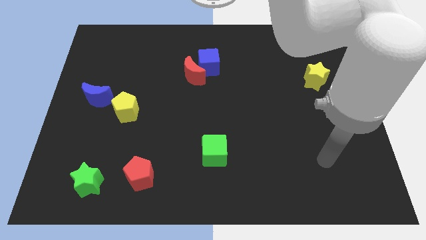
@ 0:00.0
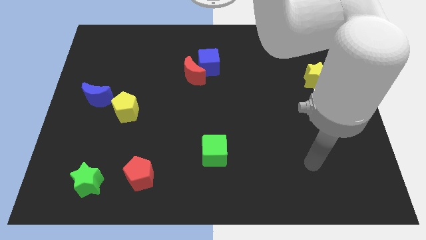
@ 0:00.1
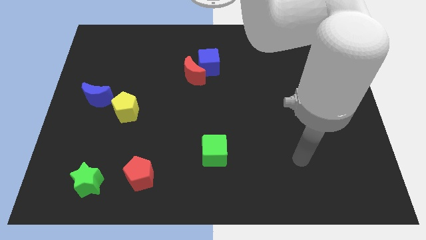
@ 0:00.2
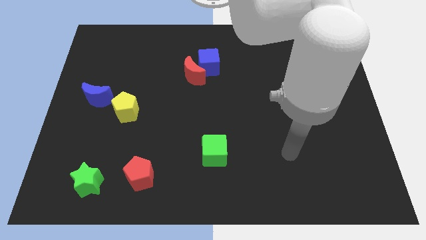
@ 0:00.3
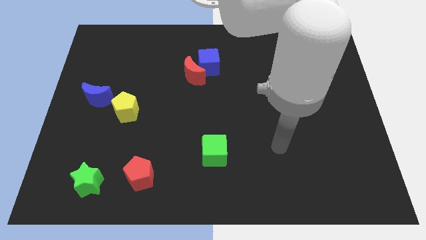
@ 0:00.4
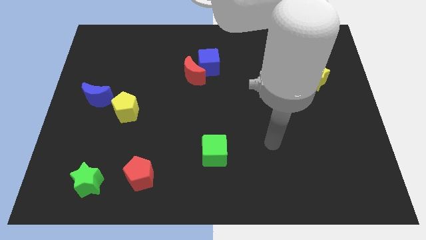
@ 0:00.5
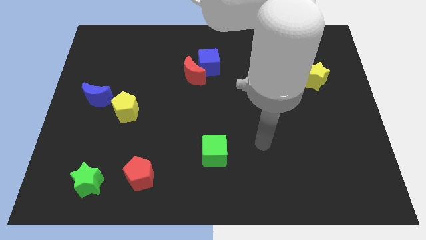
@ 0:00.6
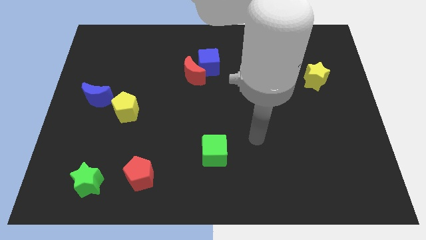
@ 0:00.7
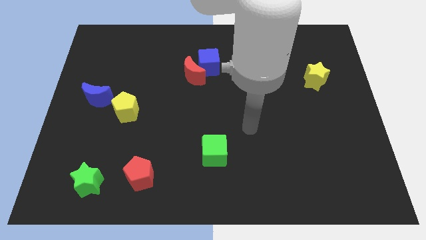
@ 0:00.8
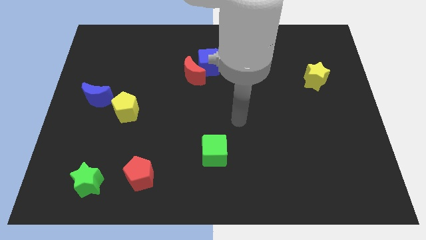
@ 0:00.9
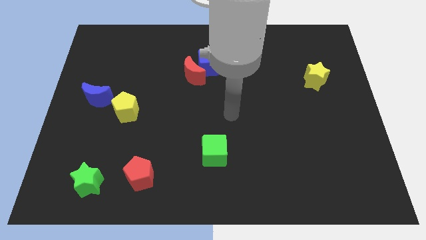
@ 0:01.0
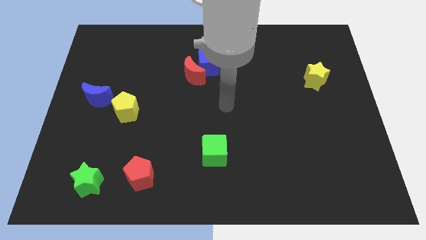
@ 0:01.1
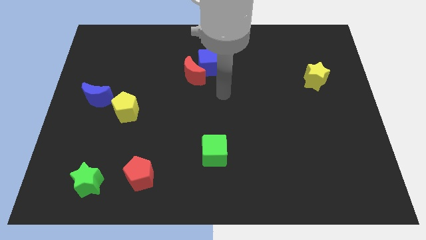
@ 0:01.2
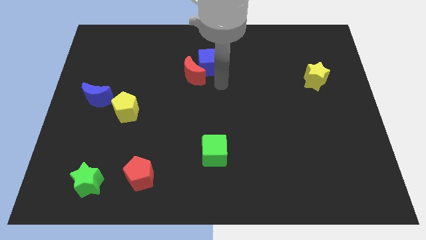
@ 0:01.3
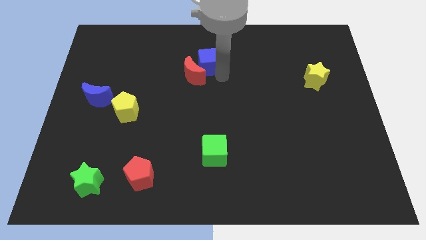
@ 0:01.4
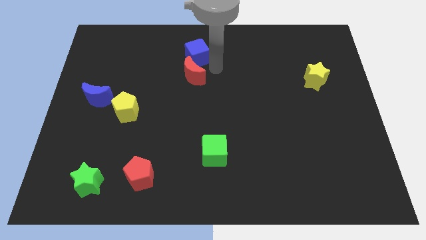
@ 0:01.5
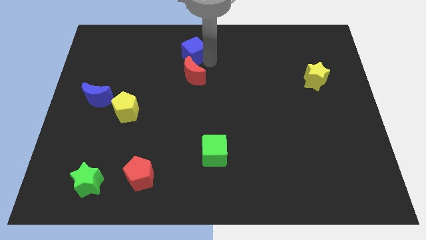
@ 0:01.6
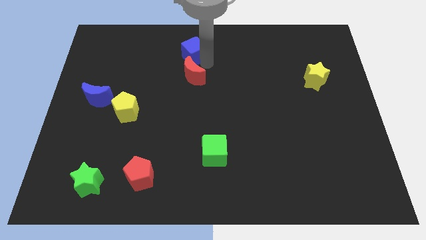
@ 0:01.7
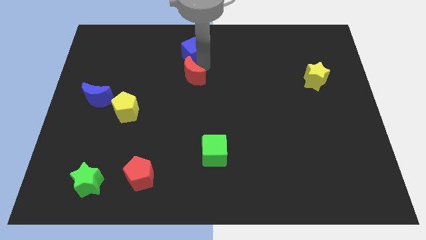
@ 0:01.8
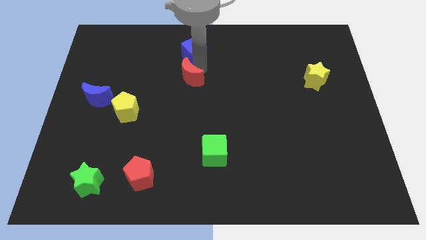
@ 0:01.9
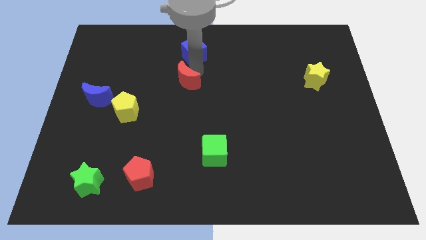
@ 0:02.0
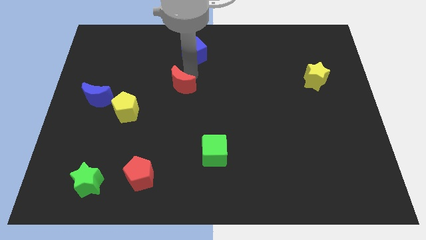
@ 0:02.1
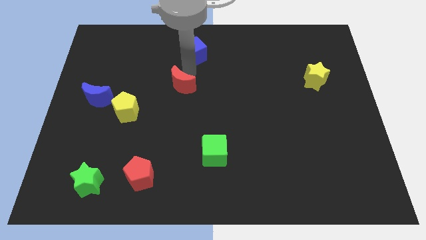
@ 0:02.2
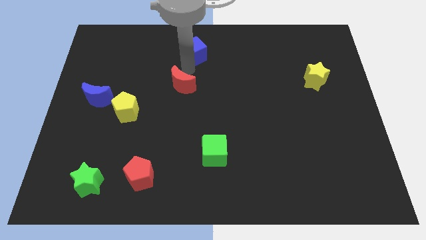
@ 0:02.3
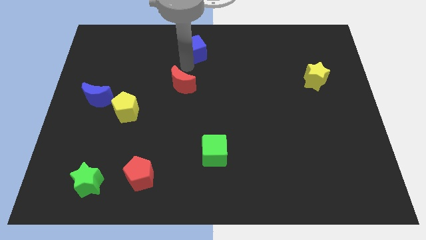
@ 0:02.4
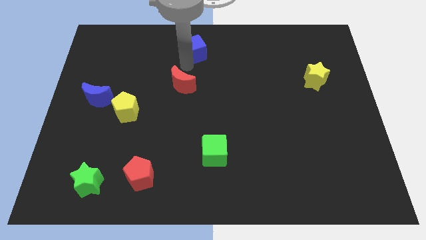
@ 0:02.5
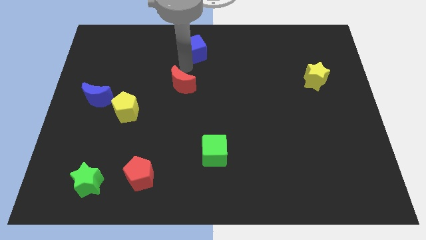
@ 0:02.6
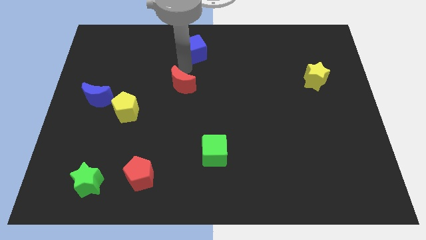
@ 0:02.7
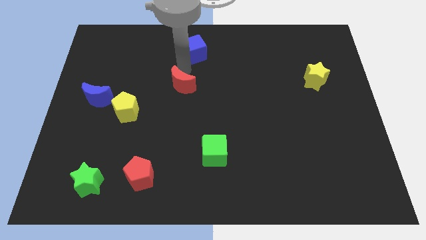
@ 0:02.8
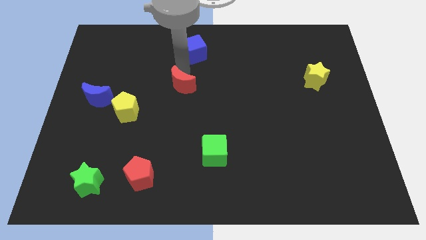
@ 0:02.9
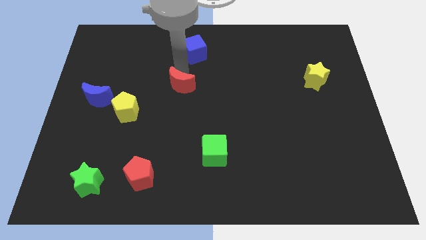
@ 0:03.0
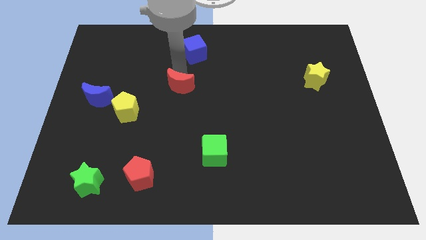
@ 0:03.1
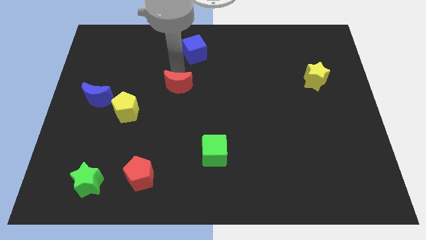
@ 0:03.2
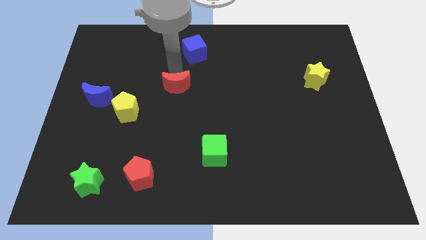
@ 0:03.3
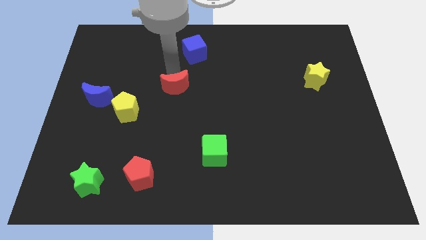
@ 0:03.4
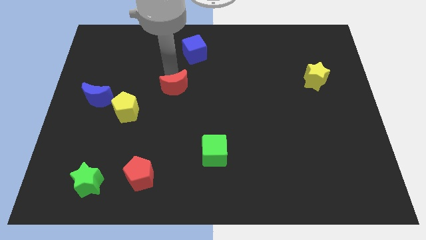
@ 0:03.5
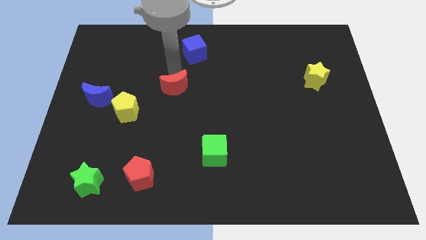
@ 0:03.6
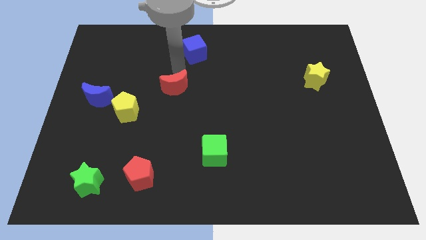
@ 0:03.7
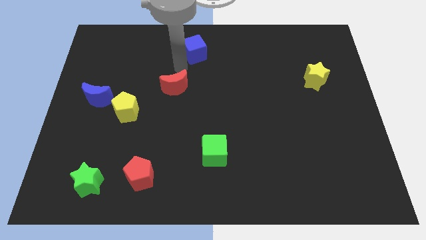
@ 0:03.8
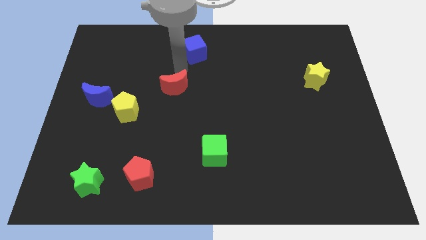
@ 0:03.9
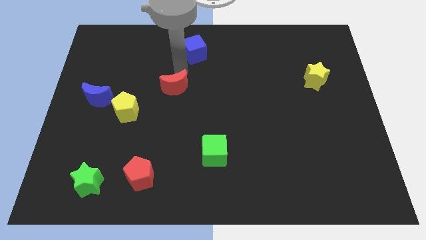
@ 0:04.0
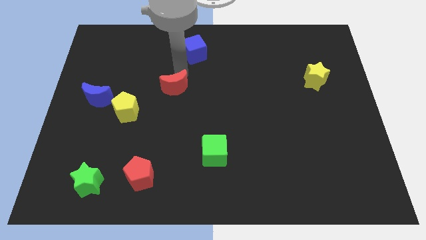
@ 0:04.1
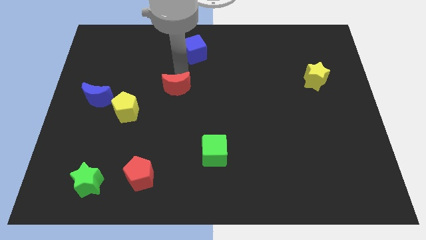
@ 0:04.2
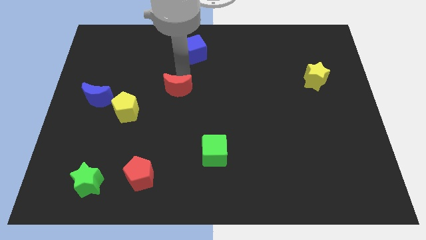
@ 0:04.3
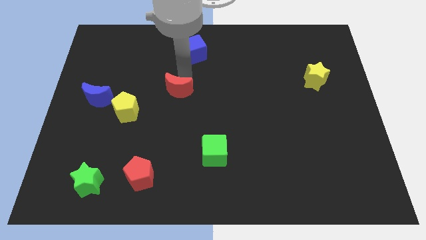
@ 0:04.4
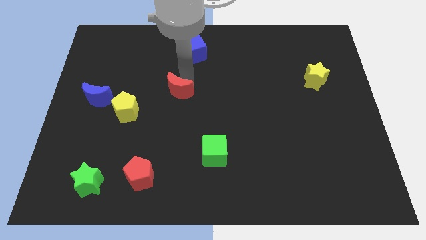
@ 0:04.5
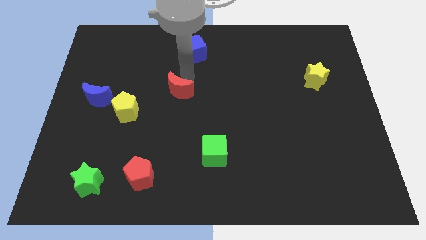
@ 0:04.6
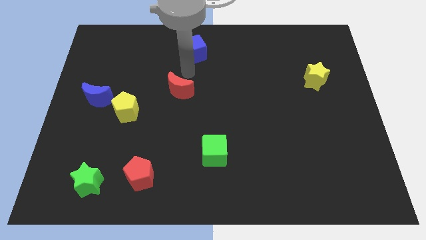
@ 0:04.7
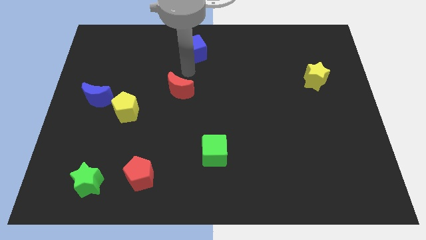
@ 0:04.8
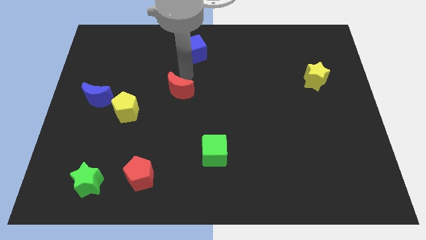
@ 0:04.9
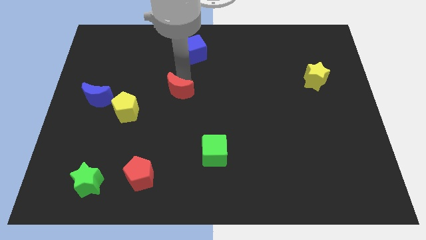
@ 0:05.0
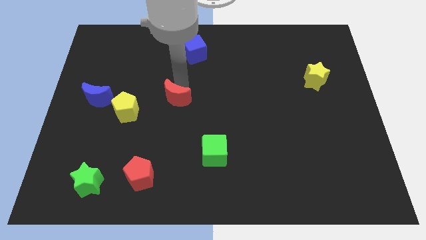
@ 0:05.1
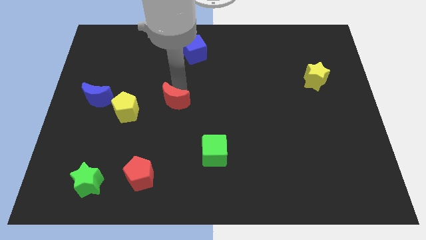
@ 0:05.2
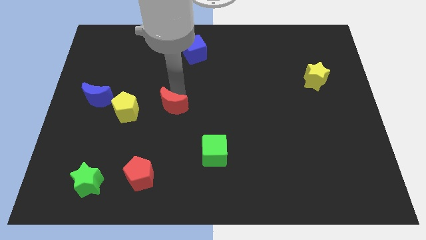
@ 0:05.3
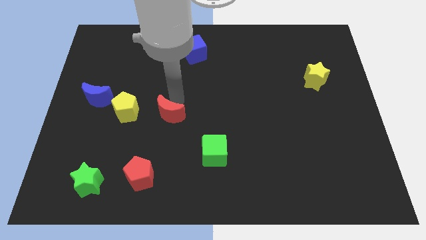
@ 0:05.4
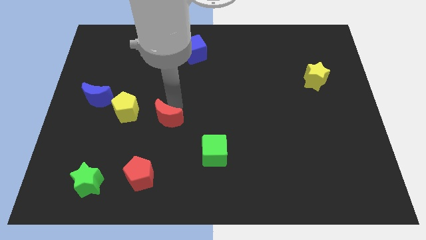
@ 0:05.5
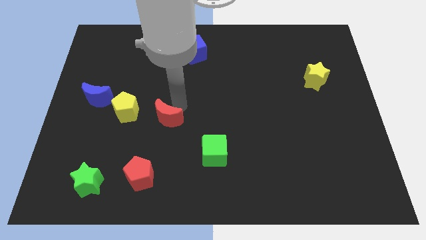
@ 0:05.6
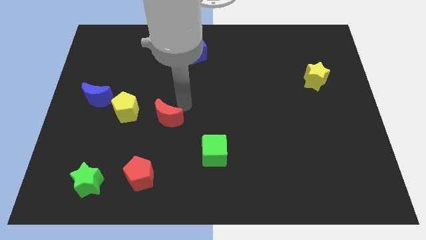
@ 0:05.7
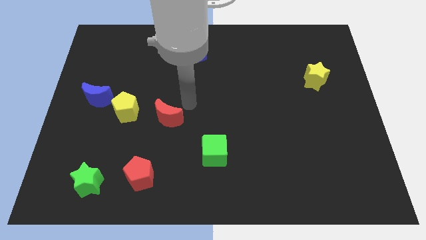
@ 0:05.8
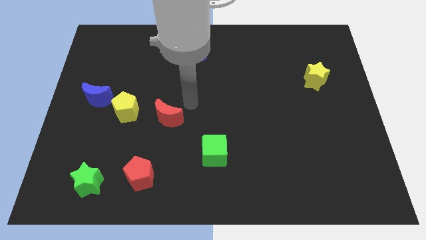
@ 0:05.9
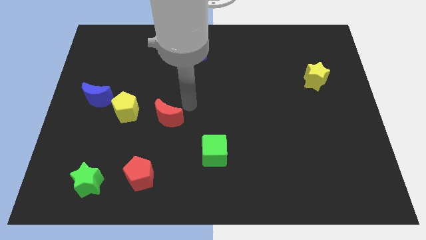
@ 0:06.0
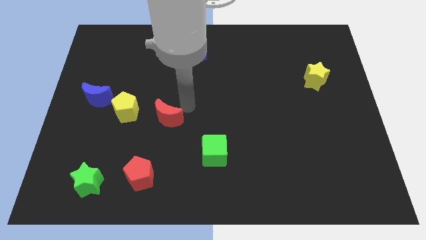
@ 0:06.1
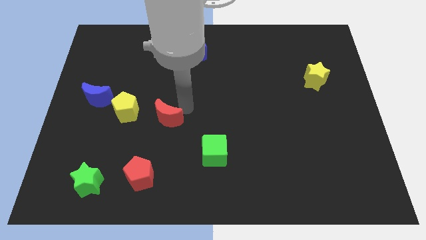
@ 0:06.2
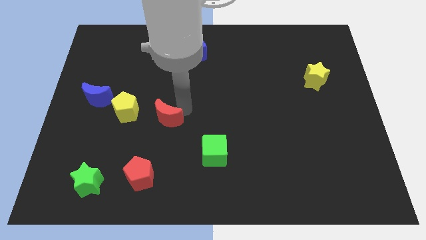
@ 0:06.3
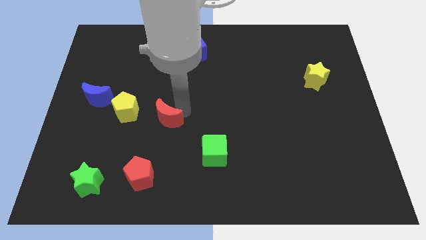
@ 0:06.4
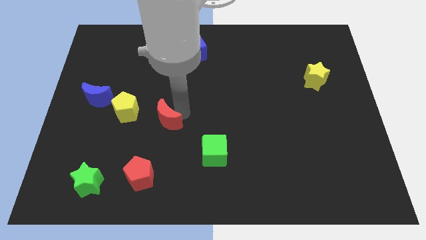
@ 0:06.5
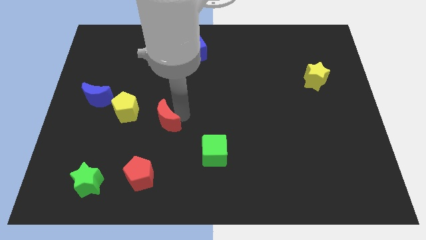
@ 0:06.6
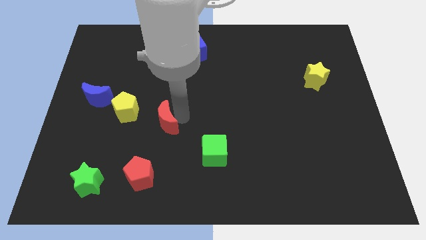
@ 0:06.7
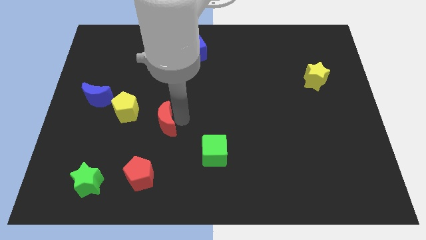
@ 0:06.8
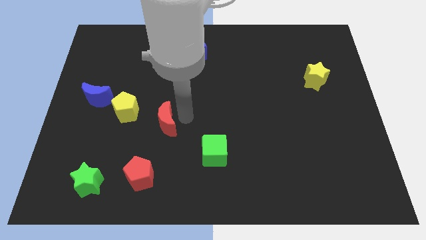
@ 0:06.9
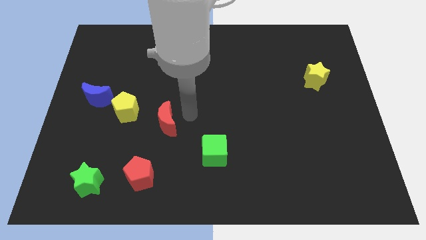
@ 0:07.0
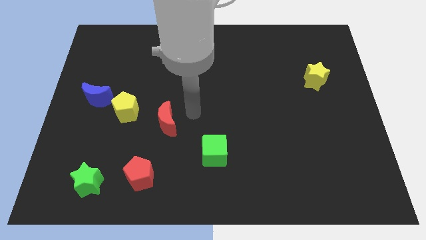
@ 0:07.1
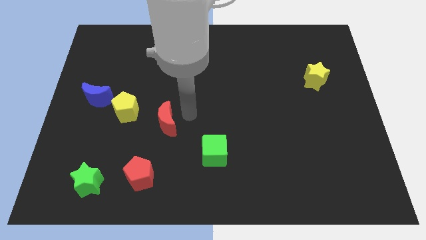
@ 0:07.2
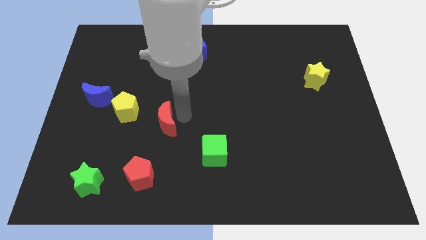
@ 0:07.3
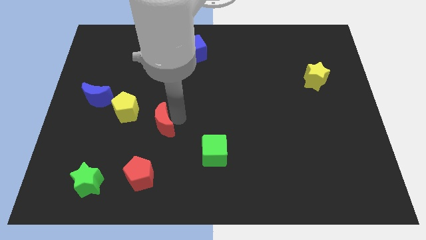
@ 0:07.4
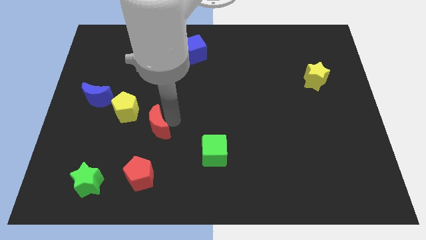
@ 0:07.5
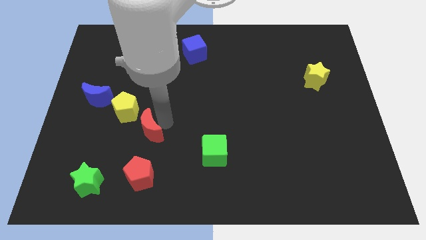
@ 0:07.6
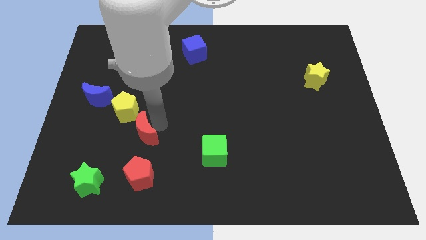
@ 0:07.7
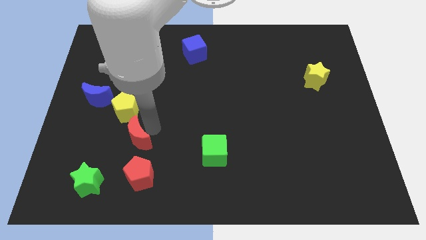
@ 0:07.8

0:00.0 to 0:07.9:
slide the red moon to the bottom side of the yellow pentagon
